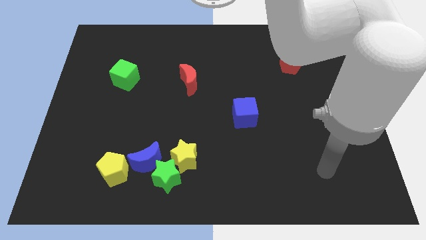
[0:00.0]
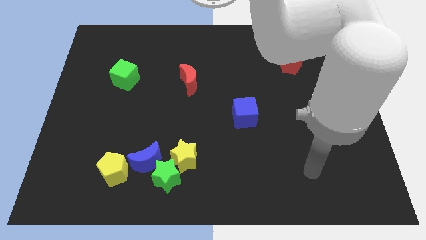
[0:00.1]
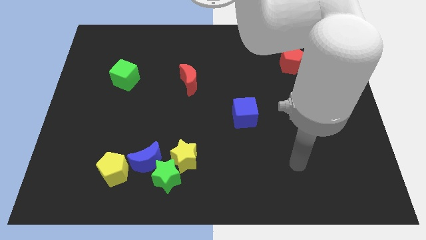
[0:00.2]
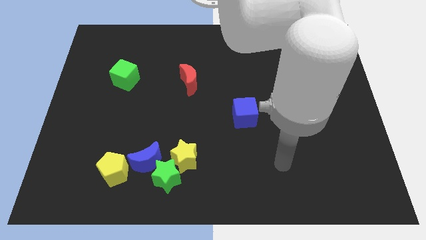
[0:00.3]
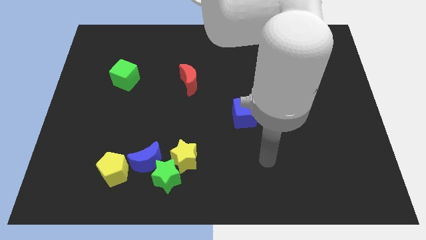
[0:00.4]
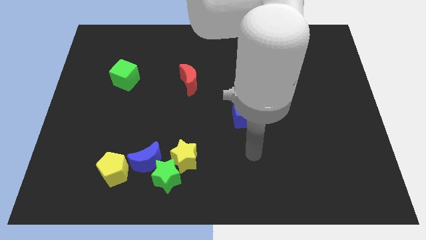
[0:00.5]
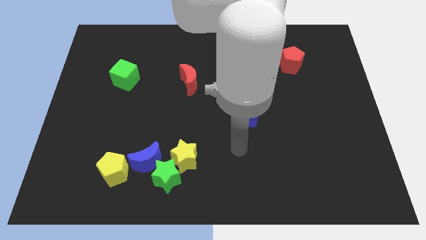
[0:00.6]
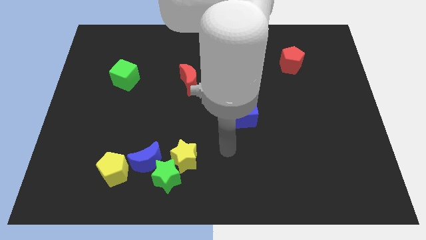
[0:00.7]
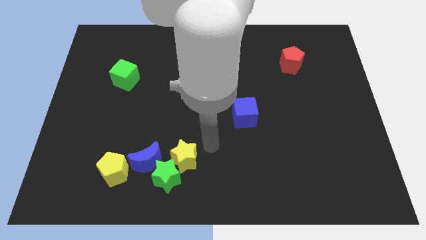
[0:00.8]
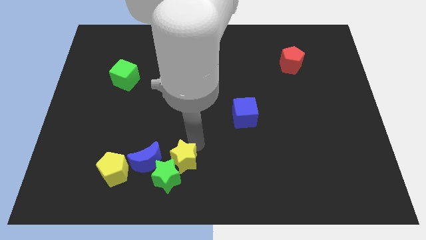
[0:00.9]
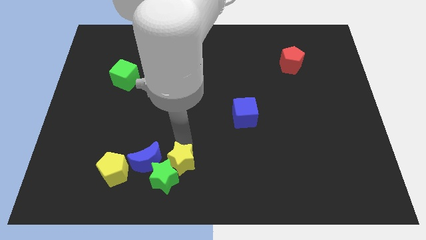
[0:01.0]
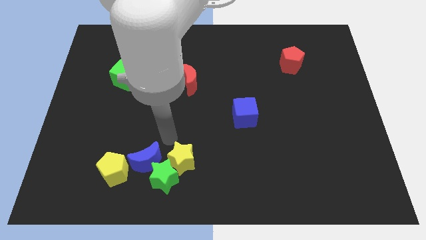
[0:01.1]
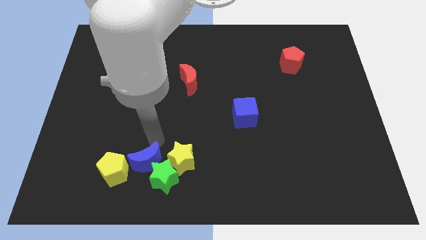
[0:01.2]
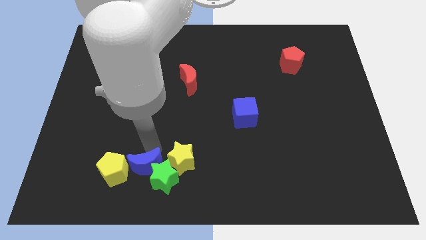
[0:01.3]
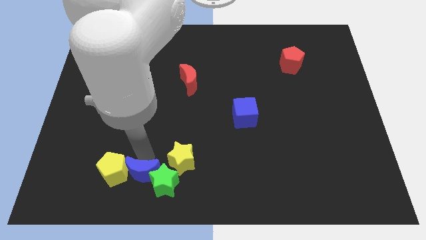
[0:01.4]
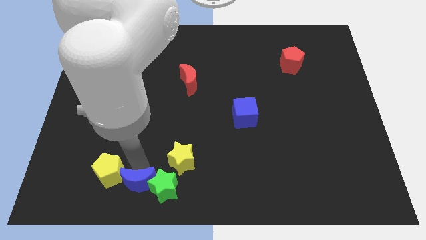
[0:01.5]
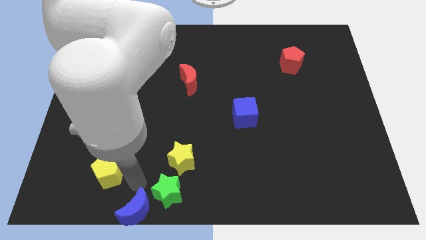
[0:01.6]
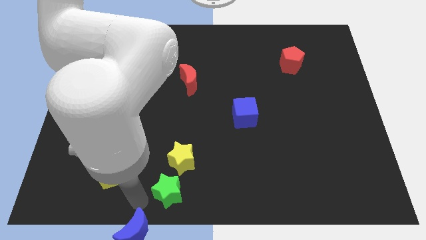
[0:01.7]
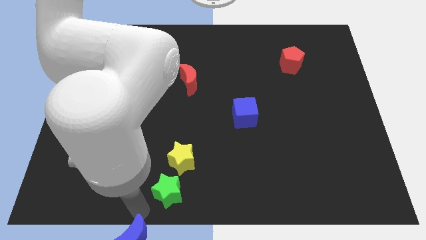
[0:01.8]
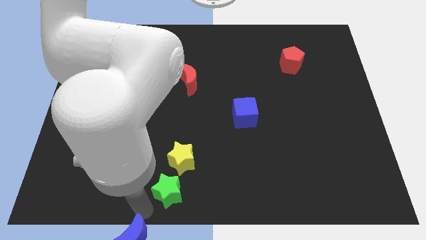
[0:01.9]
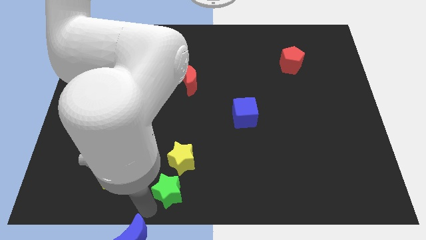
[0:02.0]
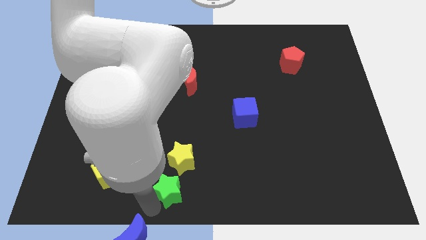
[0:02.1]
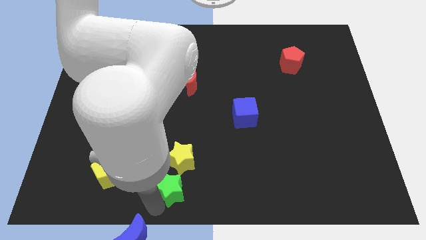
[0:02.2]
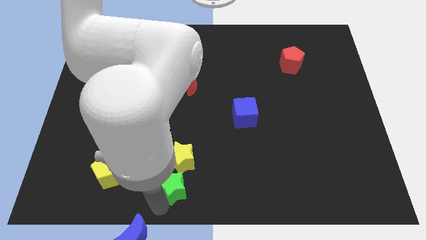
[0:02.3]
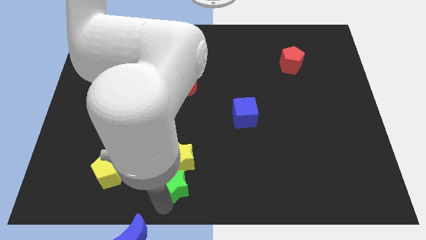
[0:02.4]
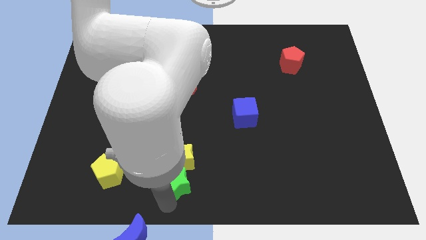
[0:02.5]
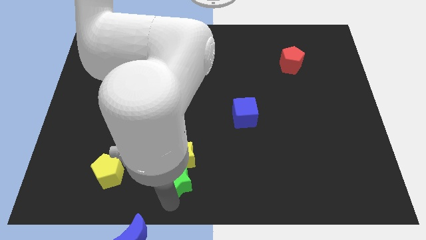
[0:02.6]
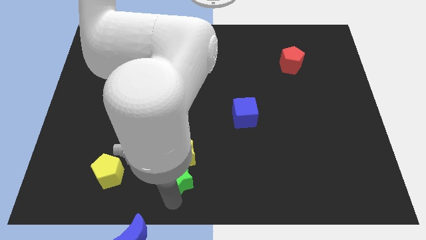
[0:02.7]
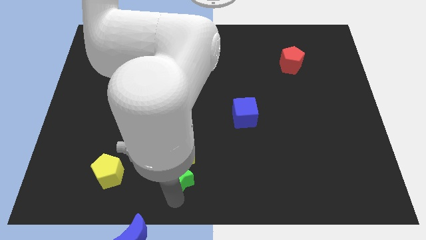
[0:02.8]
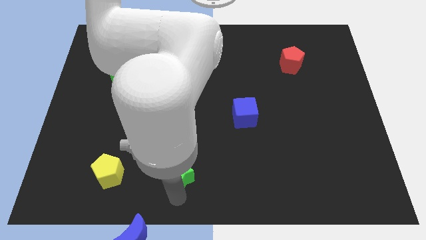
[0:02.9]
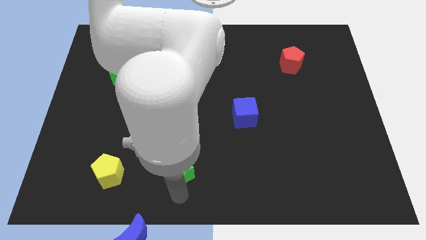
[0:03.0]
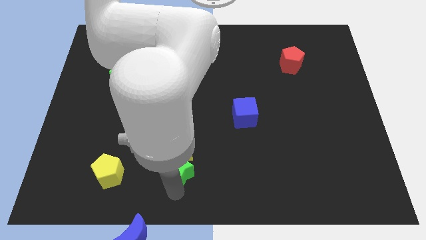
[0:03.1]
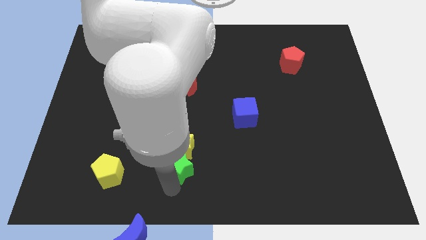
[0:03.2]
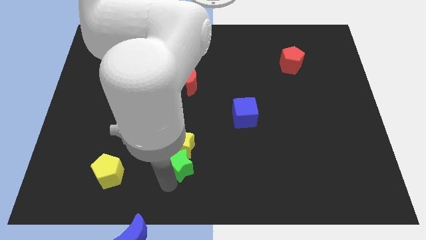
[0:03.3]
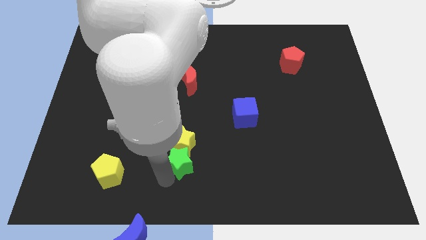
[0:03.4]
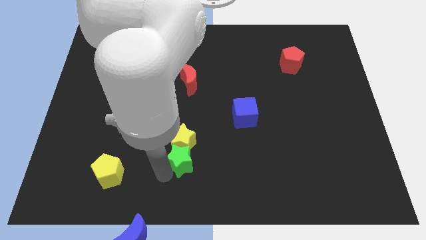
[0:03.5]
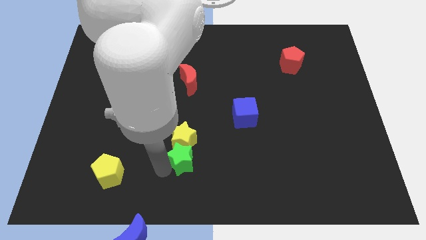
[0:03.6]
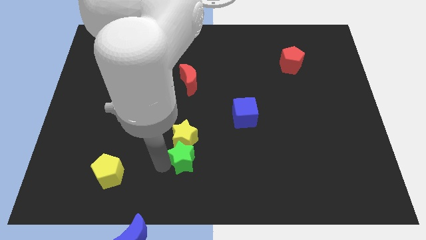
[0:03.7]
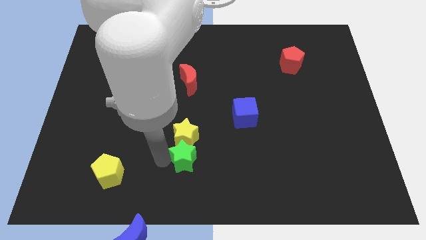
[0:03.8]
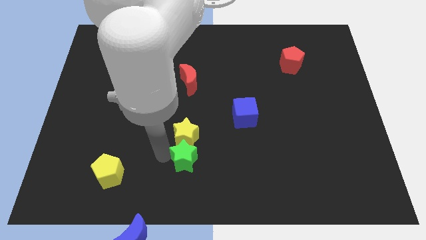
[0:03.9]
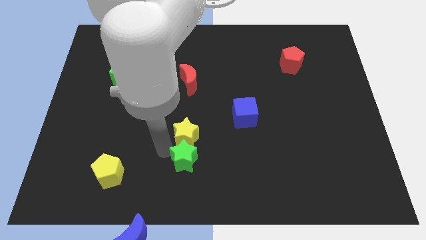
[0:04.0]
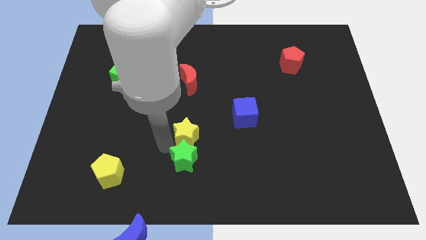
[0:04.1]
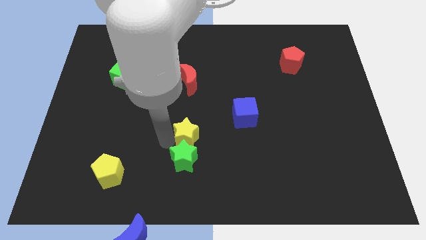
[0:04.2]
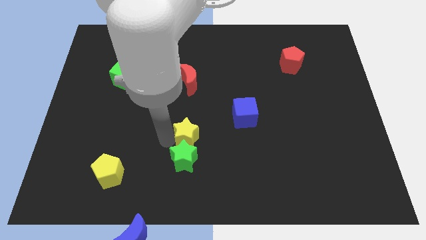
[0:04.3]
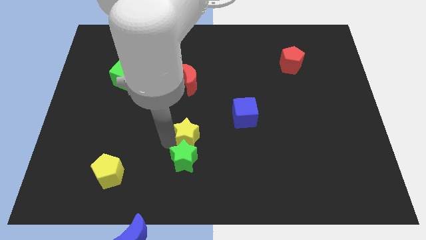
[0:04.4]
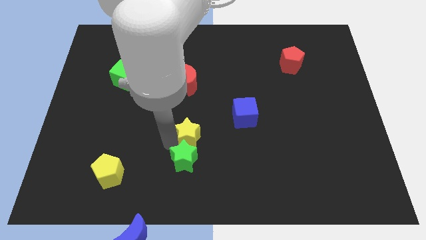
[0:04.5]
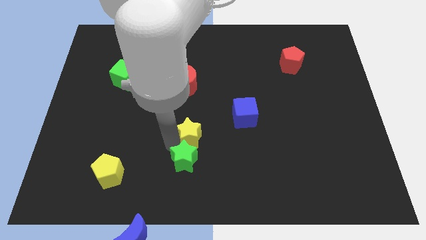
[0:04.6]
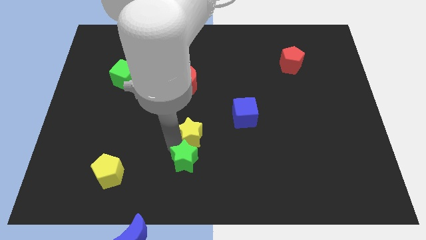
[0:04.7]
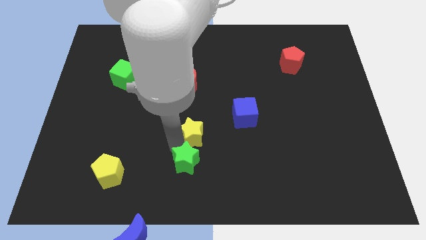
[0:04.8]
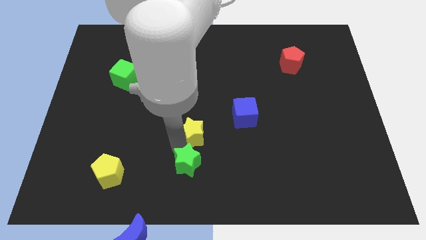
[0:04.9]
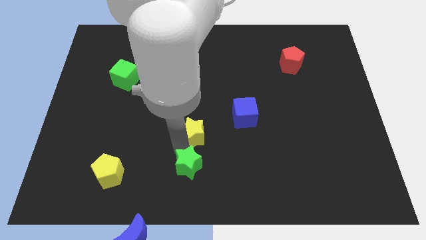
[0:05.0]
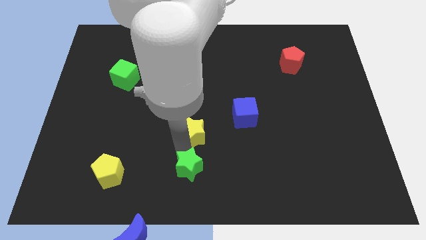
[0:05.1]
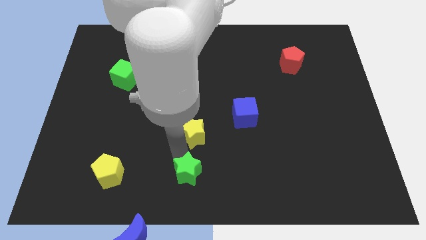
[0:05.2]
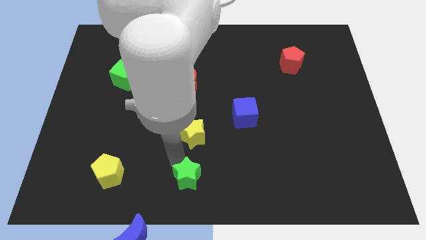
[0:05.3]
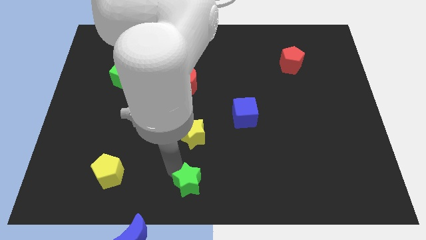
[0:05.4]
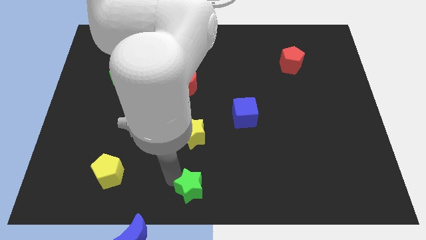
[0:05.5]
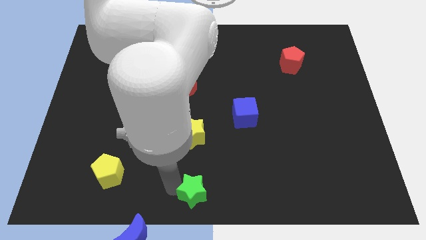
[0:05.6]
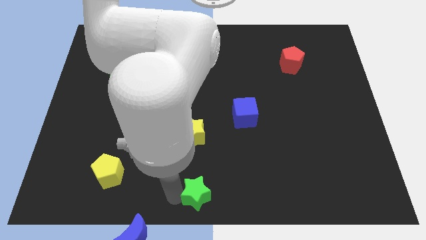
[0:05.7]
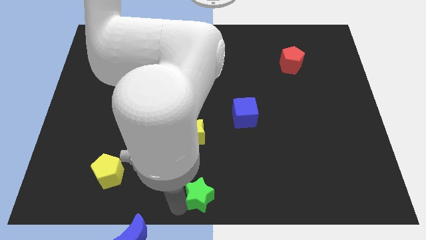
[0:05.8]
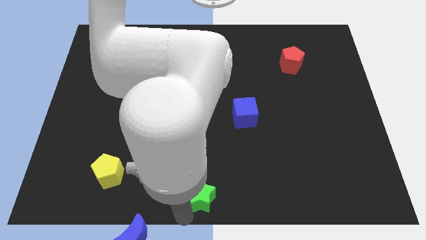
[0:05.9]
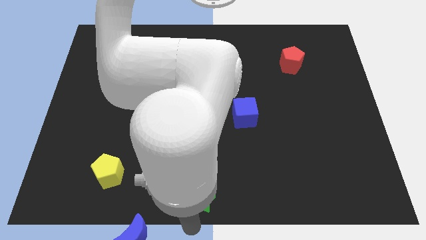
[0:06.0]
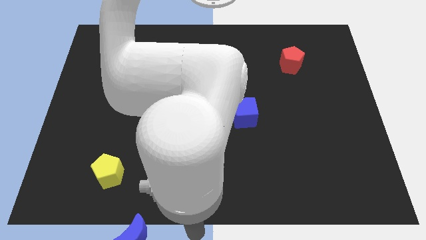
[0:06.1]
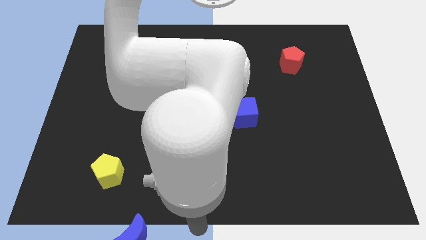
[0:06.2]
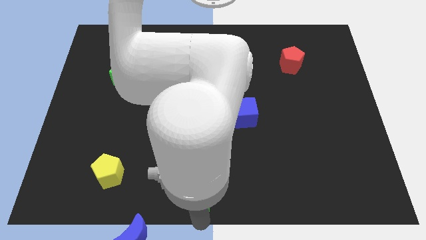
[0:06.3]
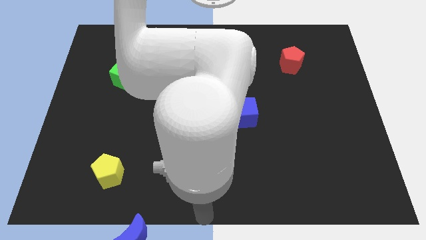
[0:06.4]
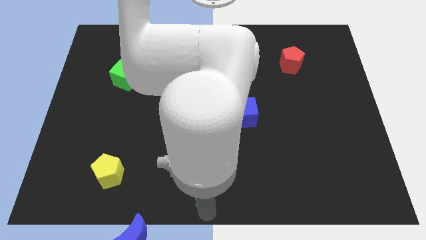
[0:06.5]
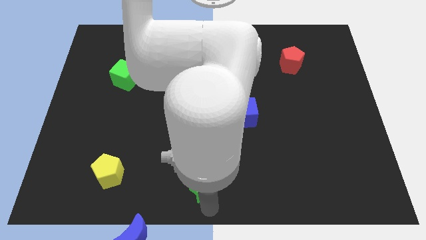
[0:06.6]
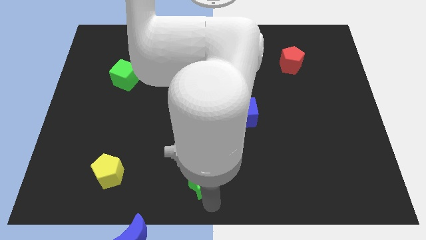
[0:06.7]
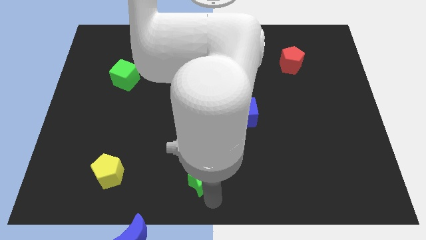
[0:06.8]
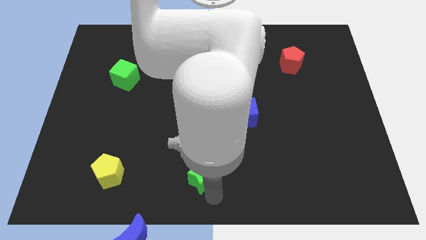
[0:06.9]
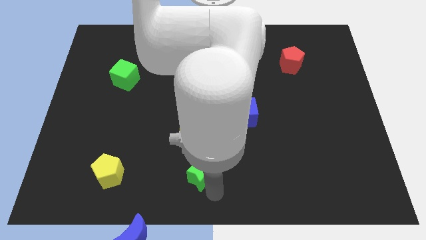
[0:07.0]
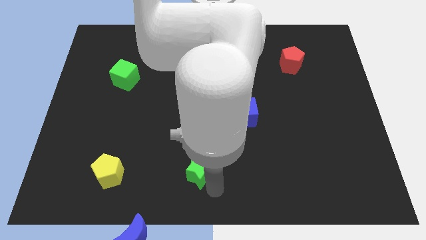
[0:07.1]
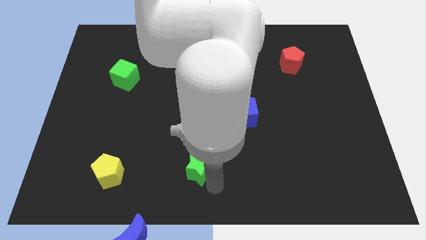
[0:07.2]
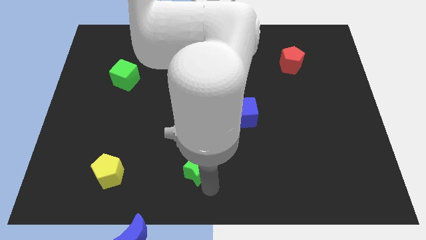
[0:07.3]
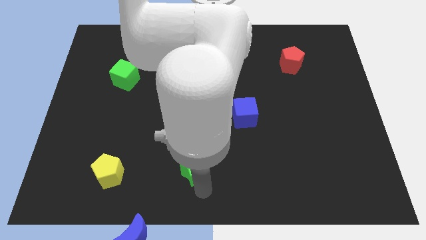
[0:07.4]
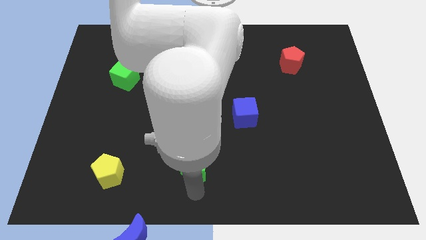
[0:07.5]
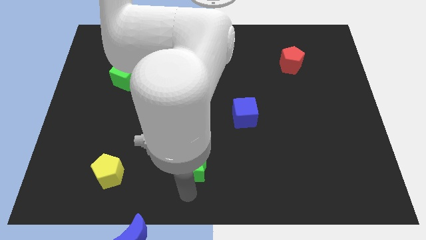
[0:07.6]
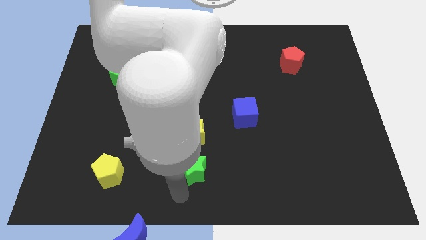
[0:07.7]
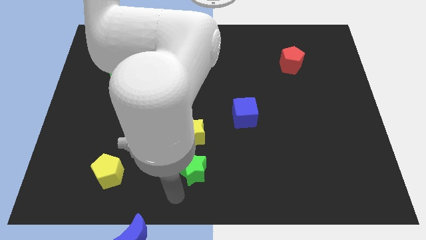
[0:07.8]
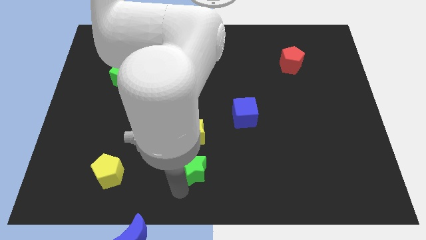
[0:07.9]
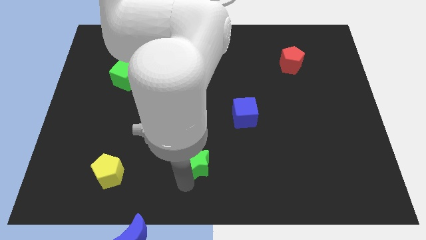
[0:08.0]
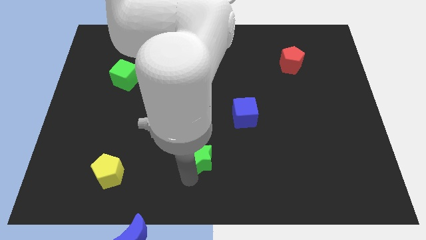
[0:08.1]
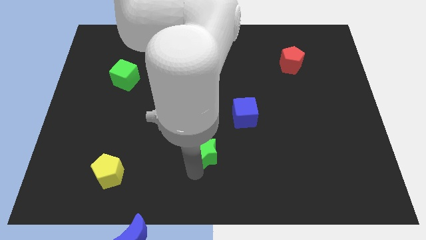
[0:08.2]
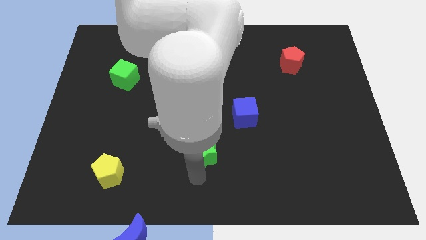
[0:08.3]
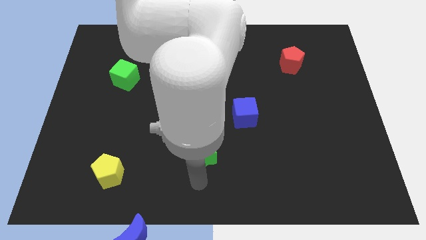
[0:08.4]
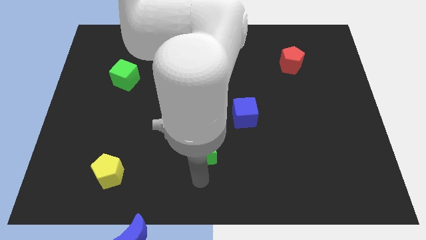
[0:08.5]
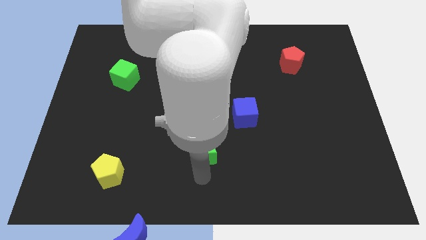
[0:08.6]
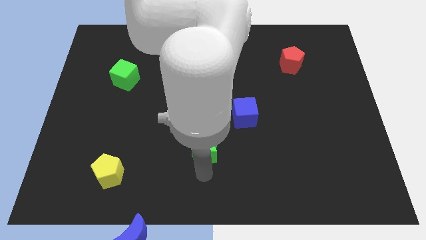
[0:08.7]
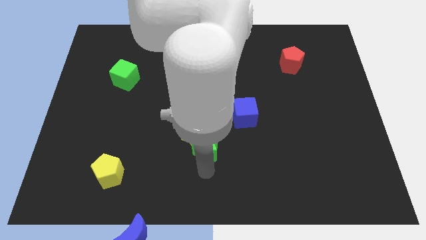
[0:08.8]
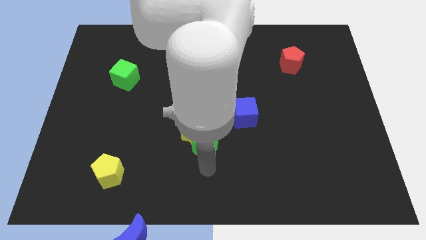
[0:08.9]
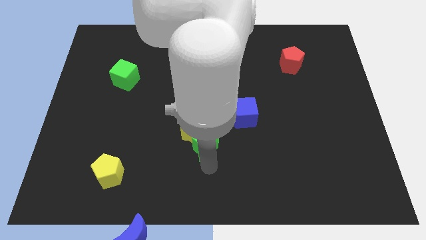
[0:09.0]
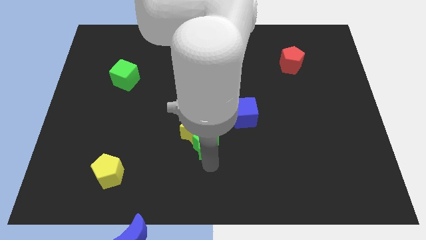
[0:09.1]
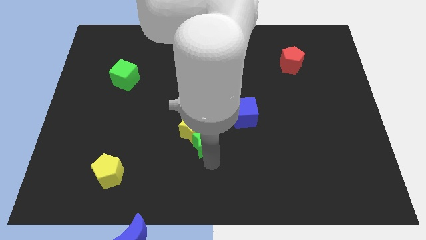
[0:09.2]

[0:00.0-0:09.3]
move the green star to the middle
